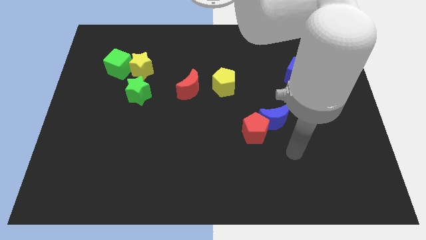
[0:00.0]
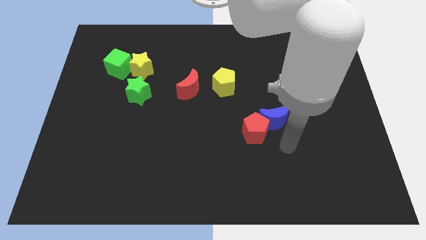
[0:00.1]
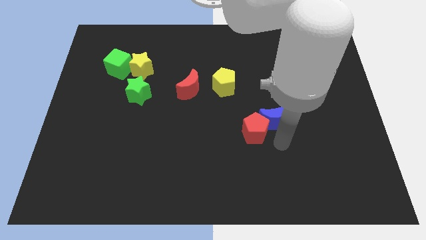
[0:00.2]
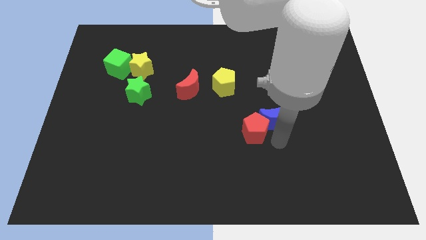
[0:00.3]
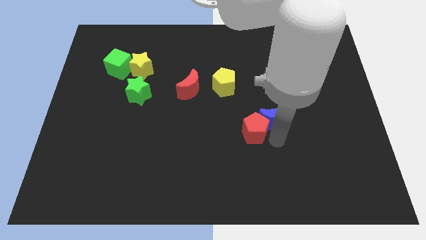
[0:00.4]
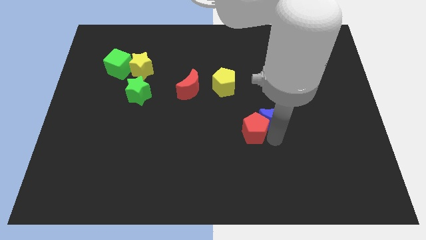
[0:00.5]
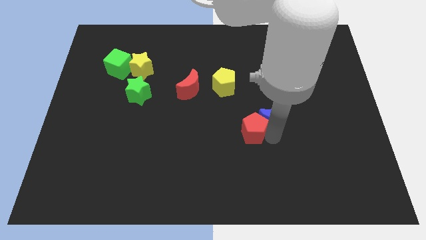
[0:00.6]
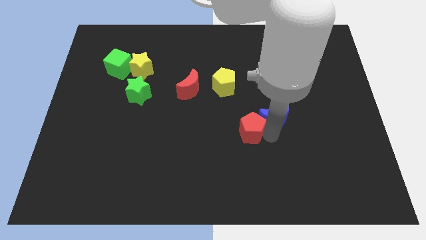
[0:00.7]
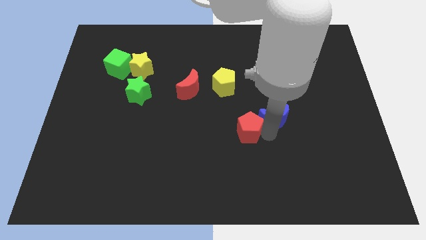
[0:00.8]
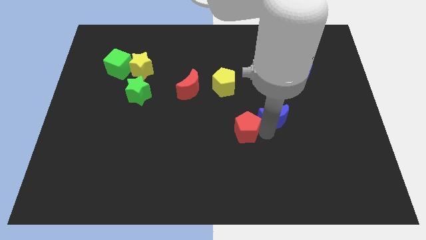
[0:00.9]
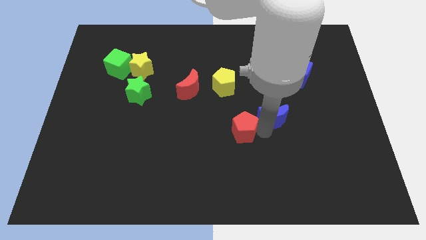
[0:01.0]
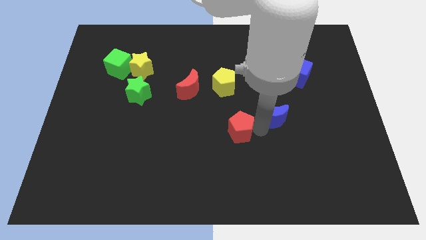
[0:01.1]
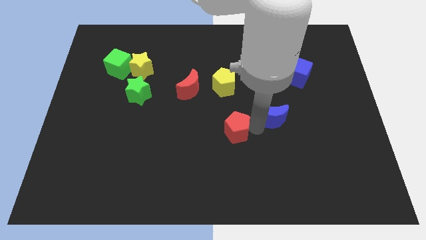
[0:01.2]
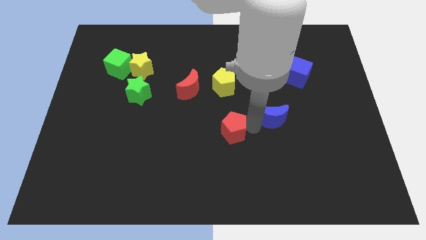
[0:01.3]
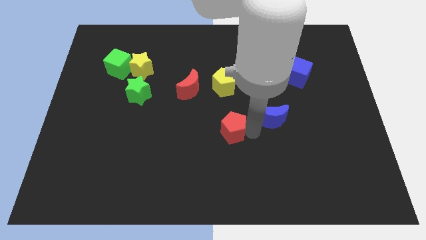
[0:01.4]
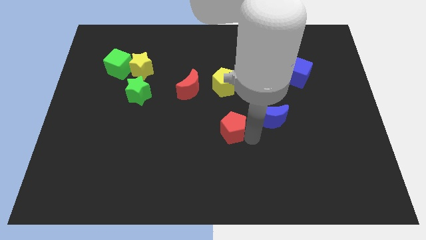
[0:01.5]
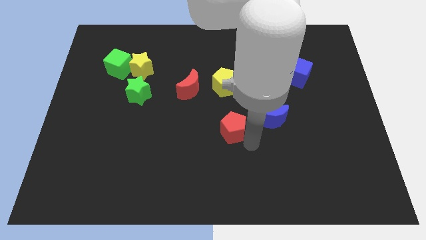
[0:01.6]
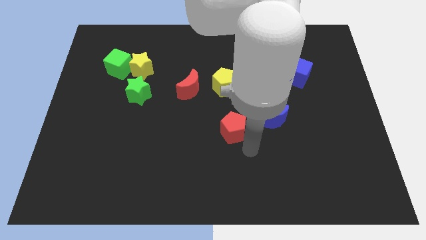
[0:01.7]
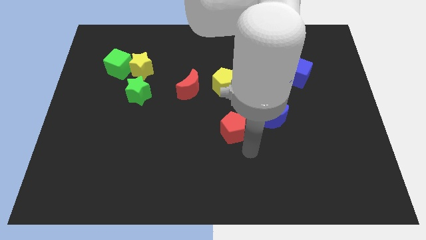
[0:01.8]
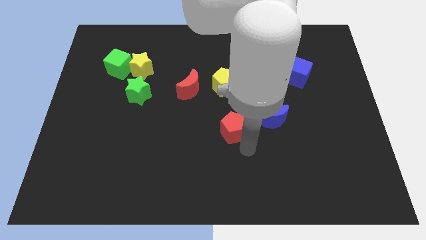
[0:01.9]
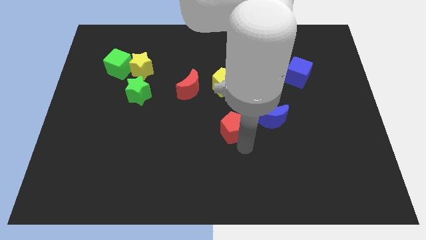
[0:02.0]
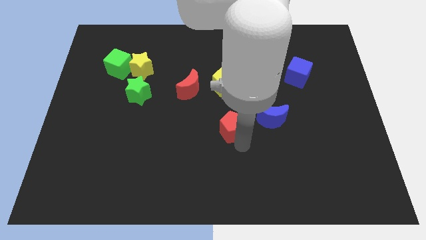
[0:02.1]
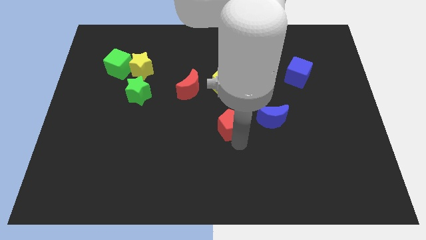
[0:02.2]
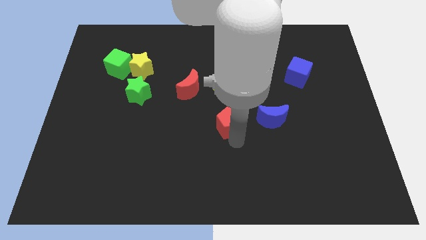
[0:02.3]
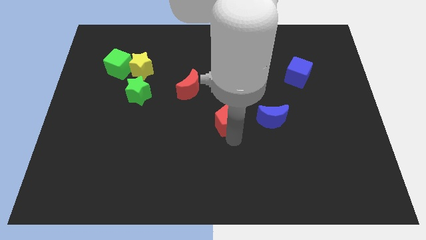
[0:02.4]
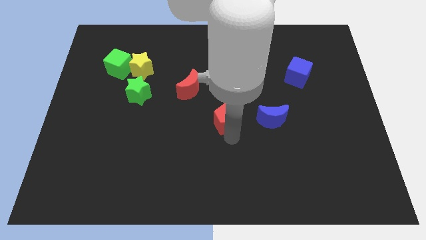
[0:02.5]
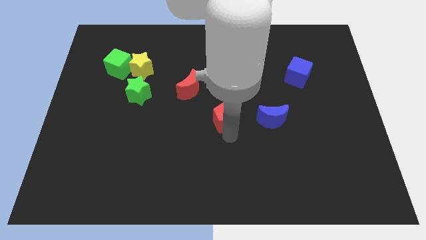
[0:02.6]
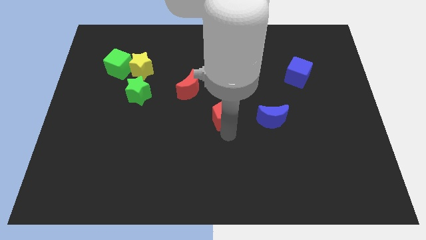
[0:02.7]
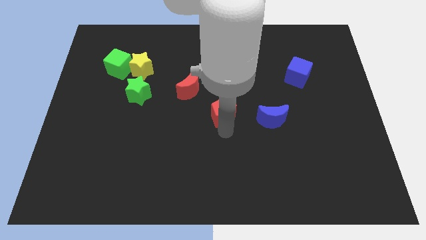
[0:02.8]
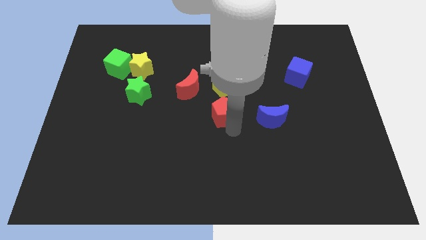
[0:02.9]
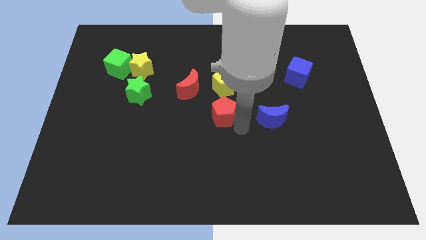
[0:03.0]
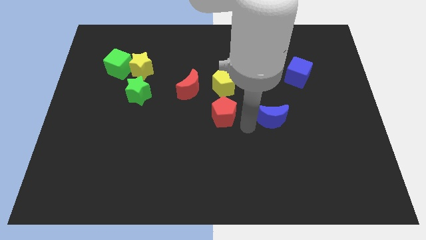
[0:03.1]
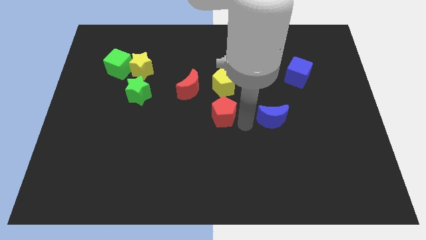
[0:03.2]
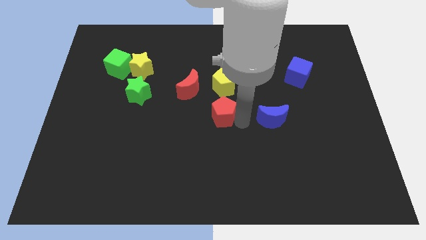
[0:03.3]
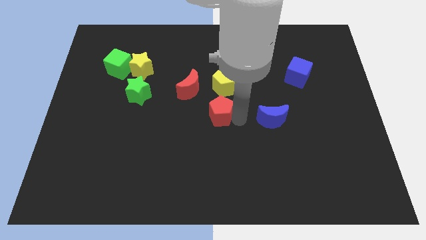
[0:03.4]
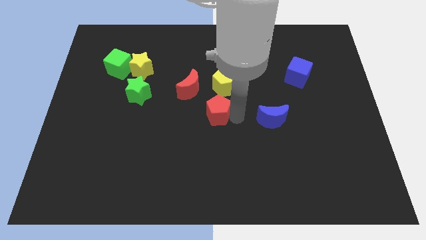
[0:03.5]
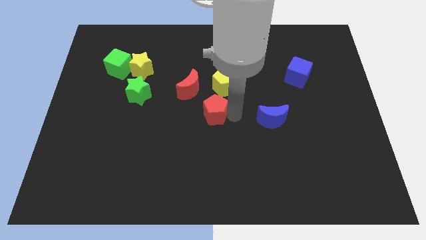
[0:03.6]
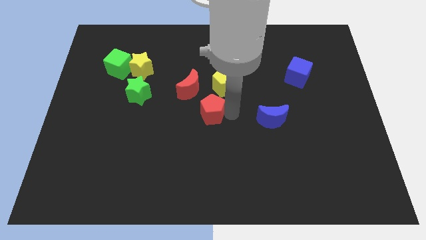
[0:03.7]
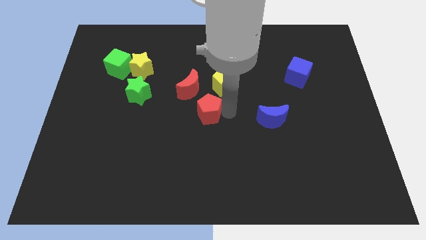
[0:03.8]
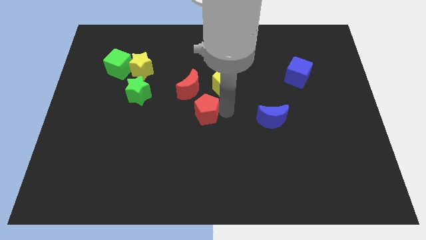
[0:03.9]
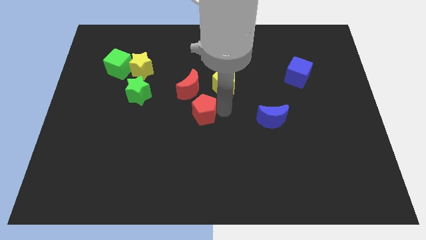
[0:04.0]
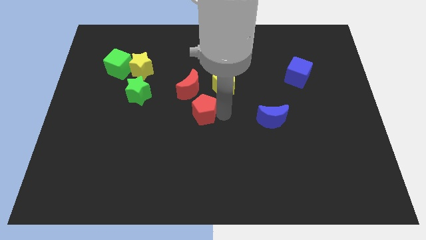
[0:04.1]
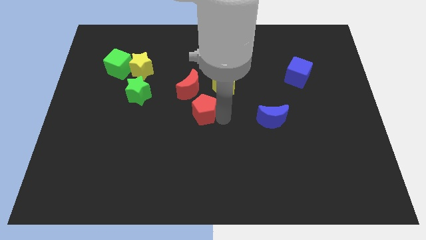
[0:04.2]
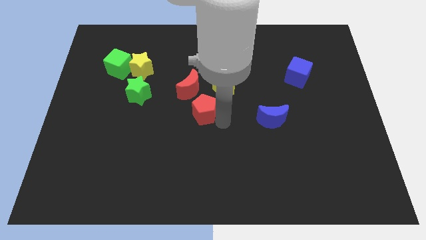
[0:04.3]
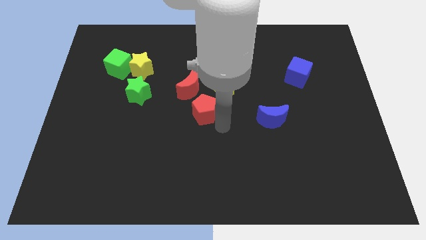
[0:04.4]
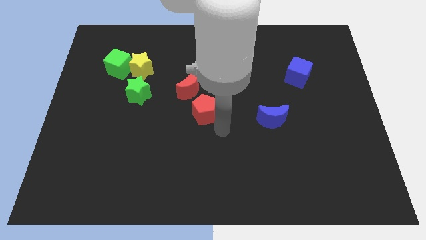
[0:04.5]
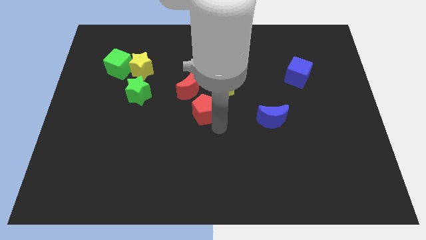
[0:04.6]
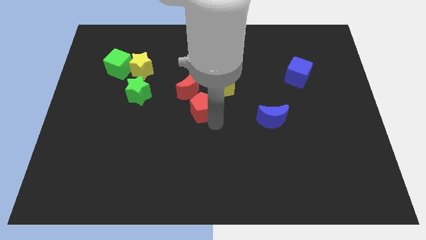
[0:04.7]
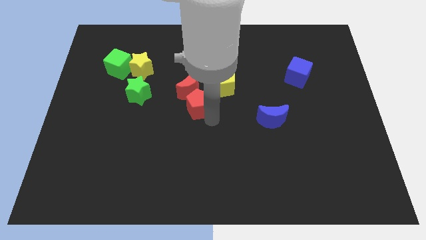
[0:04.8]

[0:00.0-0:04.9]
move the red pentagon towards the red moon

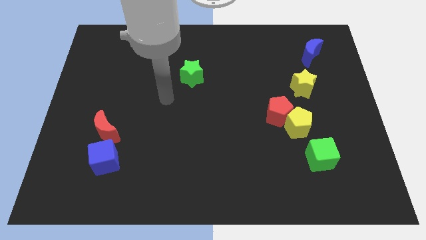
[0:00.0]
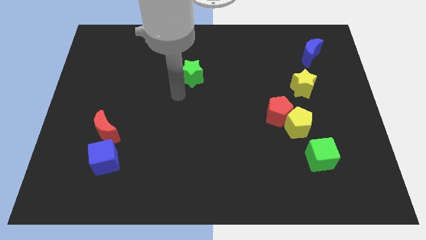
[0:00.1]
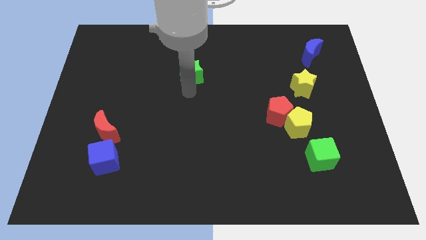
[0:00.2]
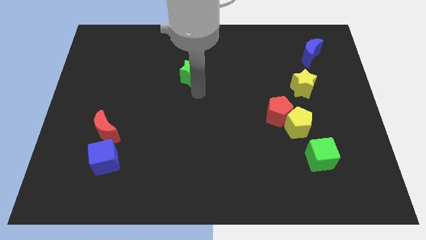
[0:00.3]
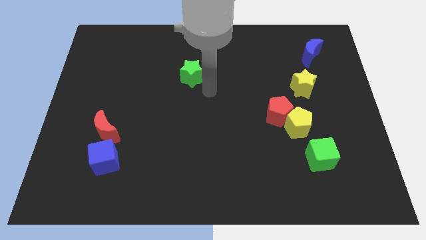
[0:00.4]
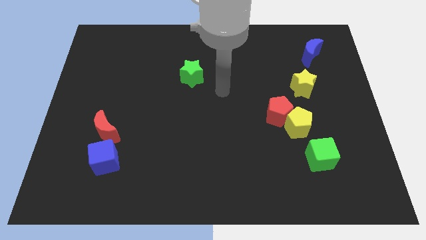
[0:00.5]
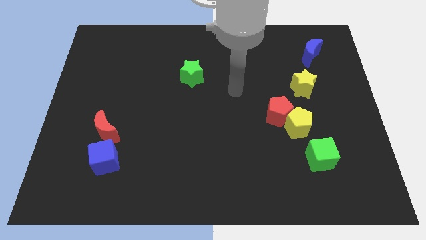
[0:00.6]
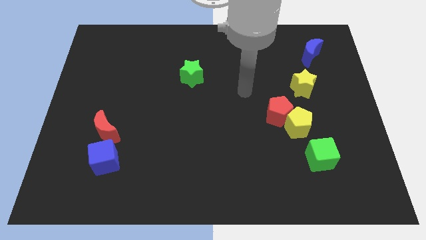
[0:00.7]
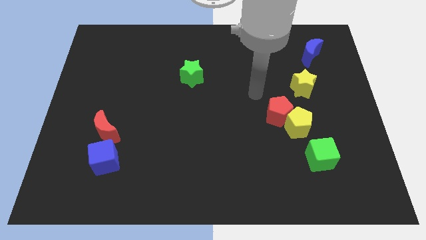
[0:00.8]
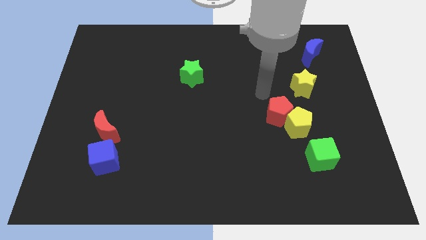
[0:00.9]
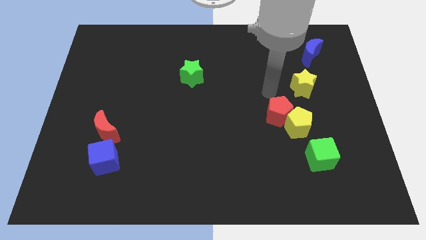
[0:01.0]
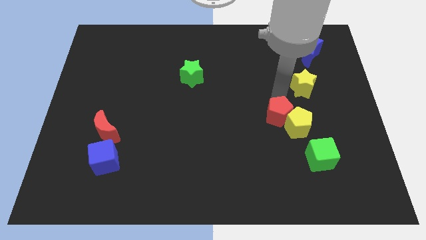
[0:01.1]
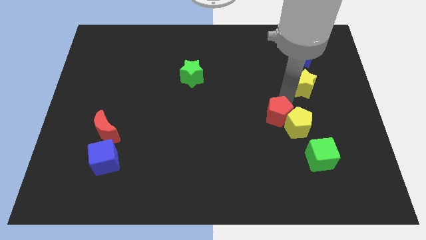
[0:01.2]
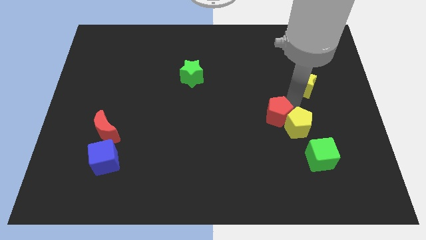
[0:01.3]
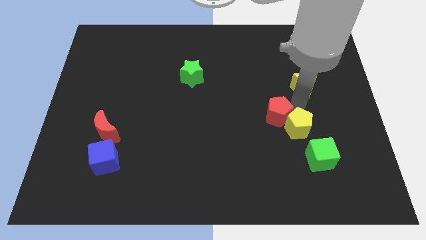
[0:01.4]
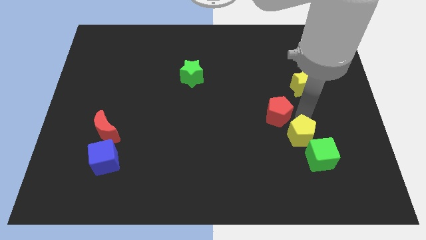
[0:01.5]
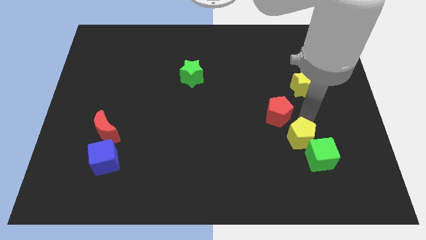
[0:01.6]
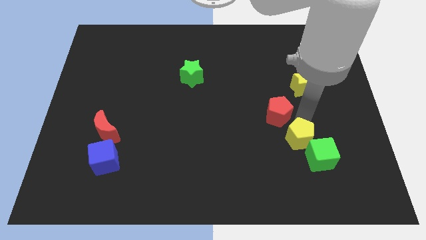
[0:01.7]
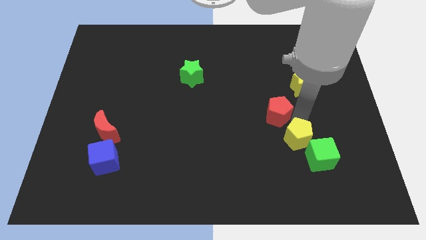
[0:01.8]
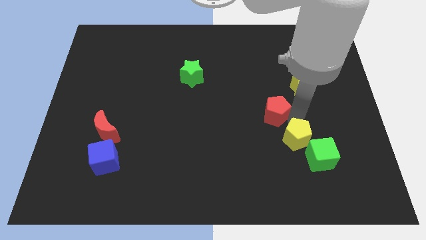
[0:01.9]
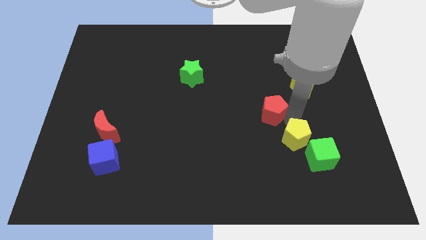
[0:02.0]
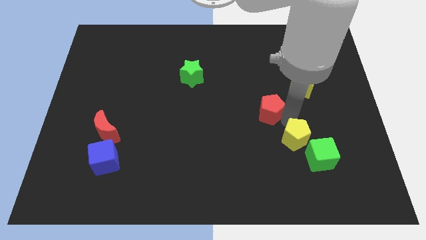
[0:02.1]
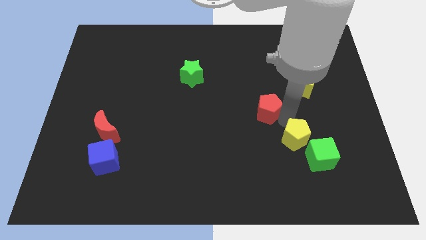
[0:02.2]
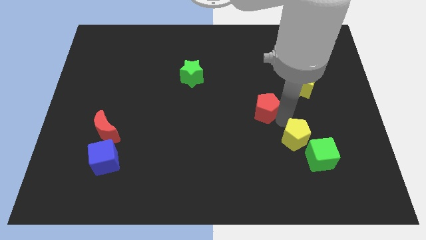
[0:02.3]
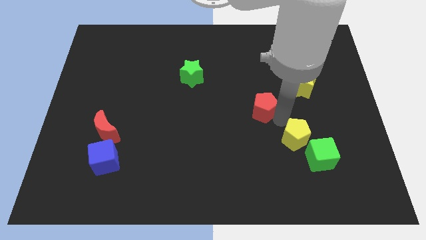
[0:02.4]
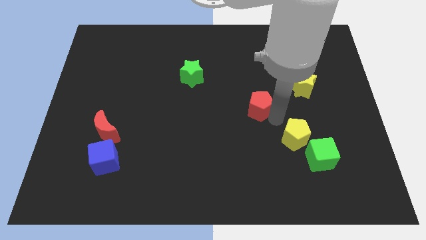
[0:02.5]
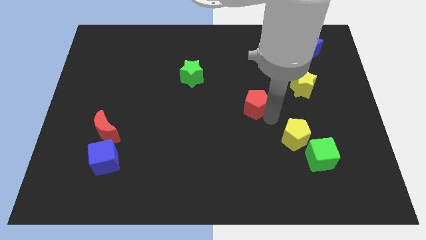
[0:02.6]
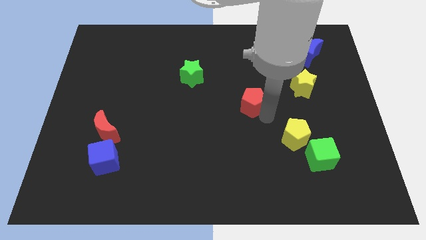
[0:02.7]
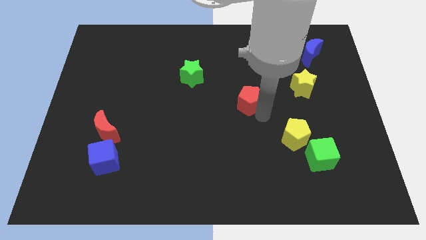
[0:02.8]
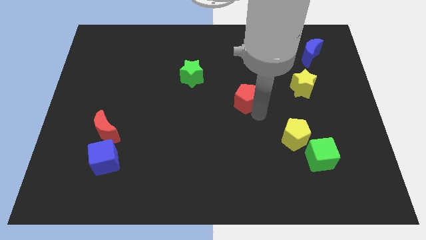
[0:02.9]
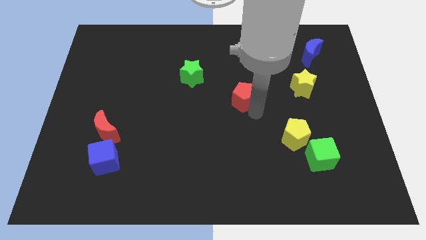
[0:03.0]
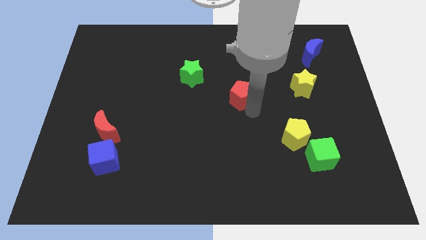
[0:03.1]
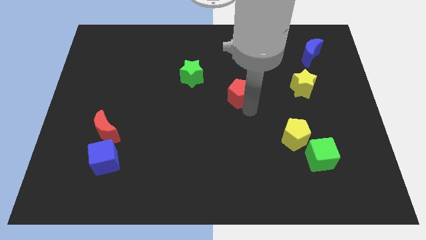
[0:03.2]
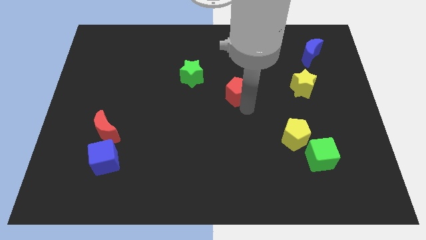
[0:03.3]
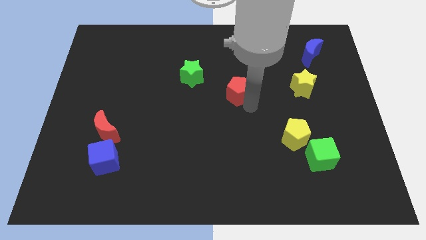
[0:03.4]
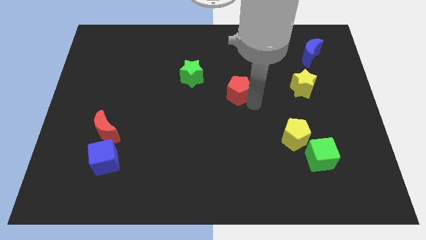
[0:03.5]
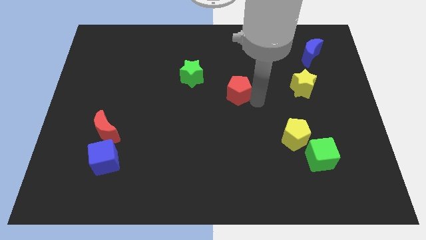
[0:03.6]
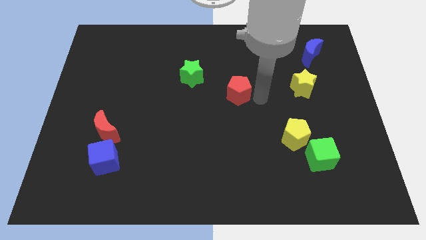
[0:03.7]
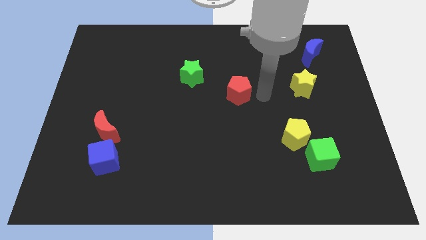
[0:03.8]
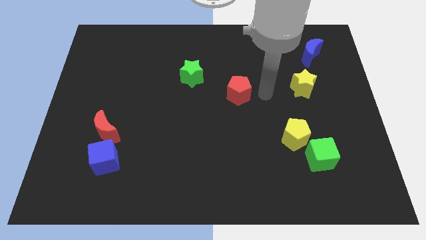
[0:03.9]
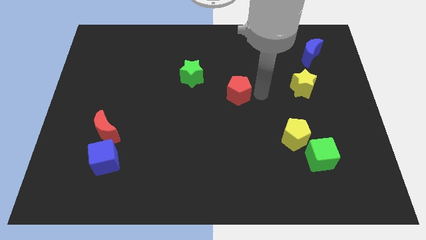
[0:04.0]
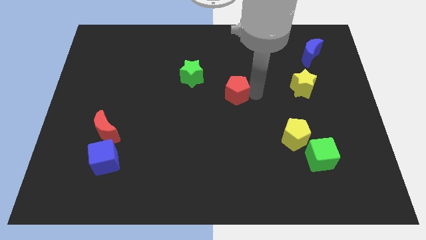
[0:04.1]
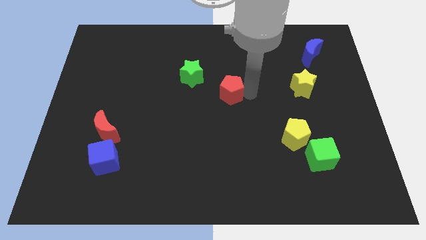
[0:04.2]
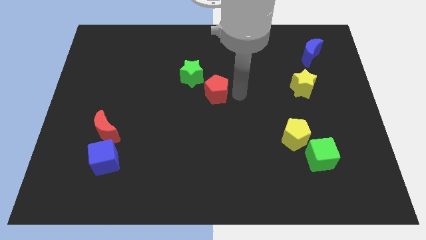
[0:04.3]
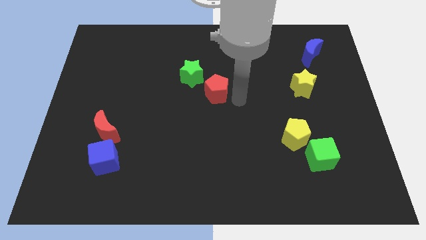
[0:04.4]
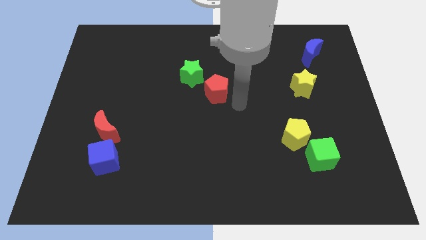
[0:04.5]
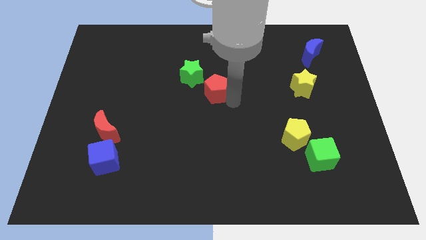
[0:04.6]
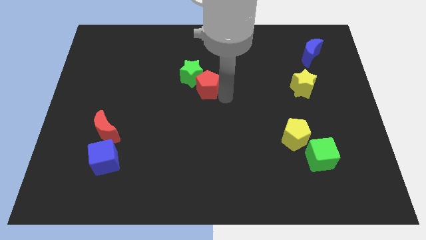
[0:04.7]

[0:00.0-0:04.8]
put the red pentagon next to the green star
